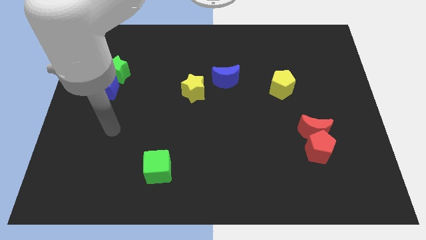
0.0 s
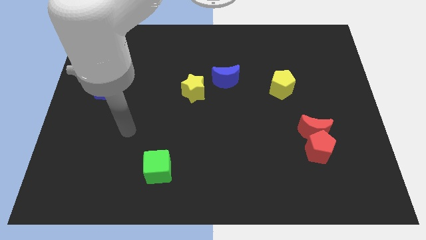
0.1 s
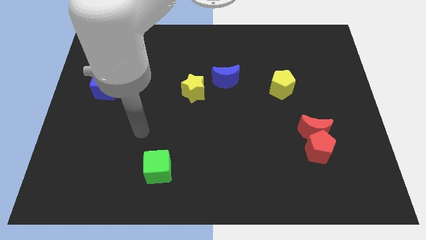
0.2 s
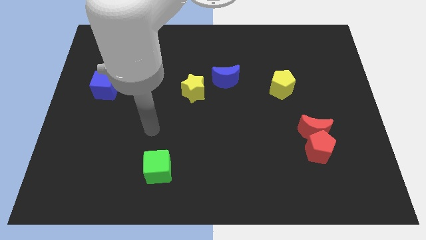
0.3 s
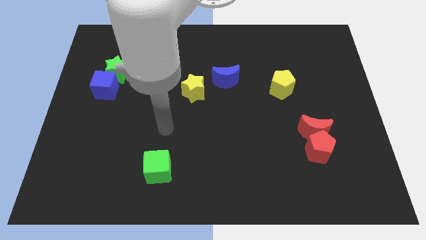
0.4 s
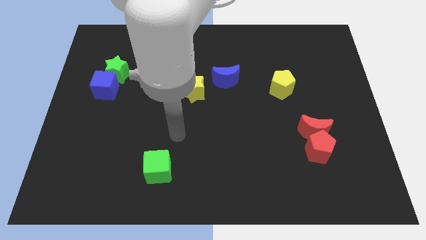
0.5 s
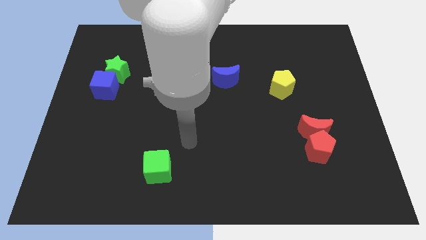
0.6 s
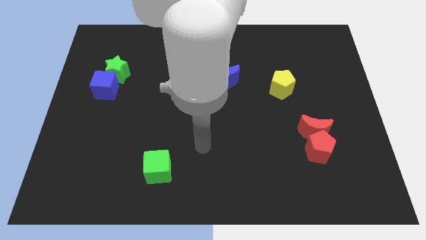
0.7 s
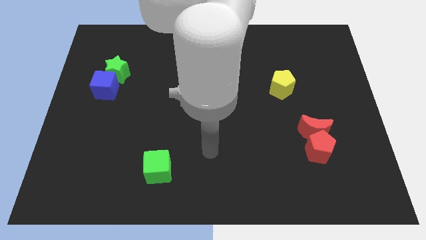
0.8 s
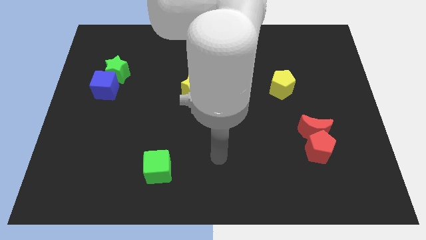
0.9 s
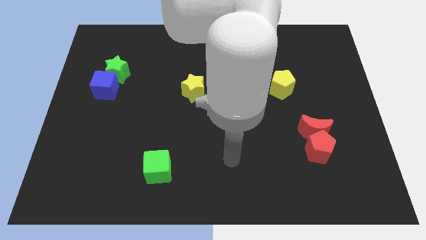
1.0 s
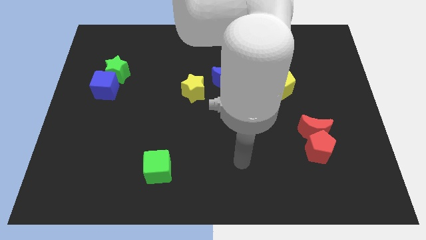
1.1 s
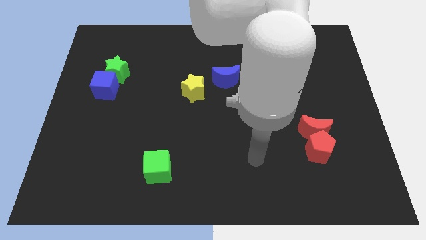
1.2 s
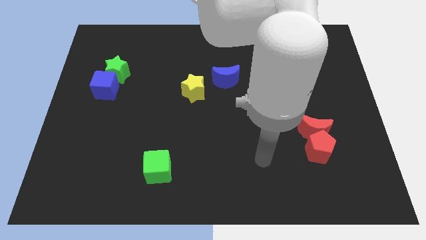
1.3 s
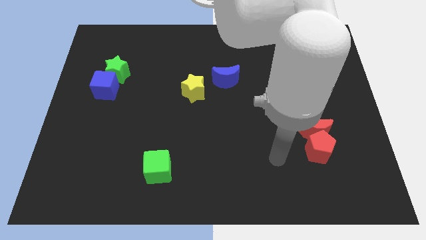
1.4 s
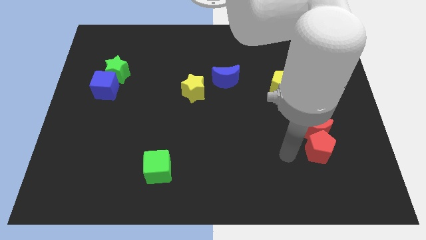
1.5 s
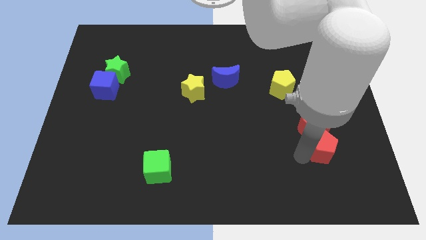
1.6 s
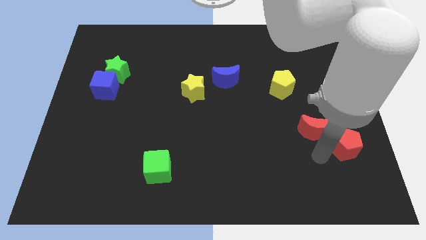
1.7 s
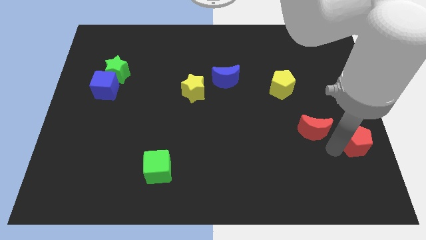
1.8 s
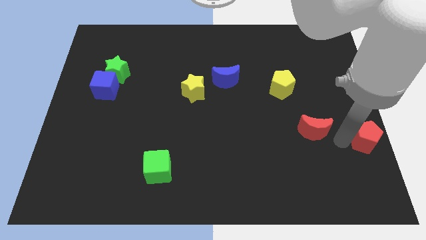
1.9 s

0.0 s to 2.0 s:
pull the red moon apart from the red pentagon

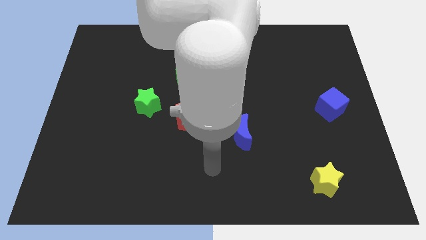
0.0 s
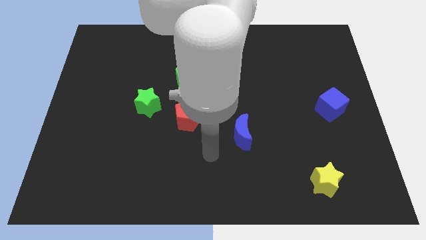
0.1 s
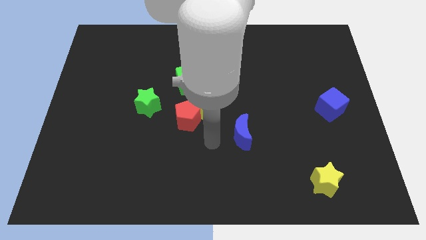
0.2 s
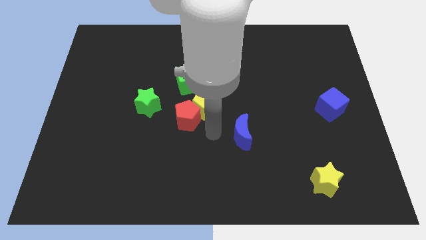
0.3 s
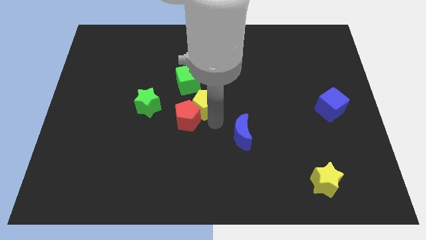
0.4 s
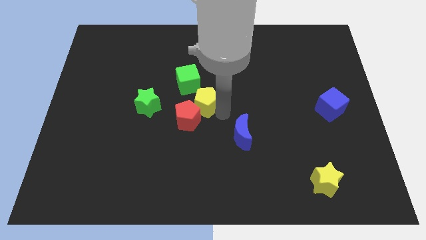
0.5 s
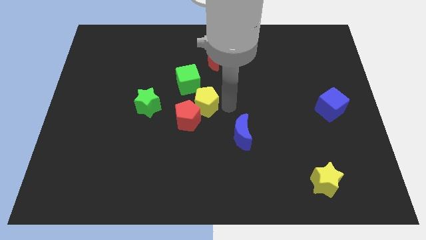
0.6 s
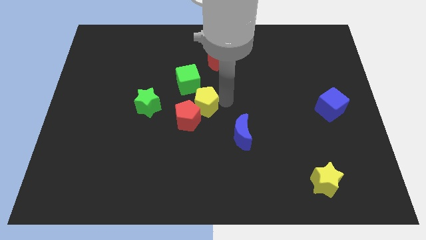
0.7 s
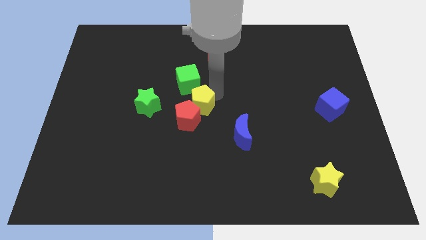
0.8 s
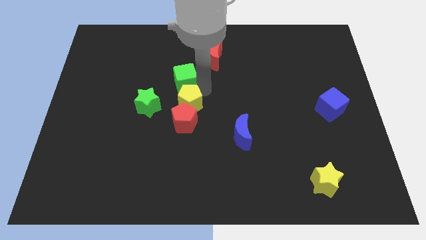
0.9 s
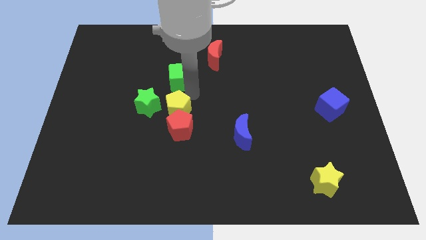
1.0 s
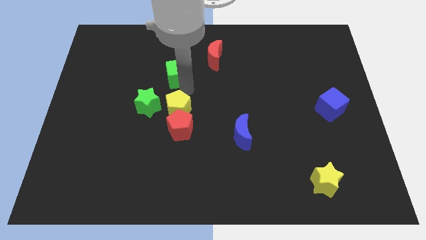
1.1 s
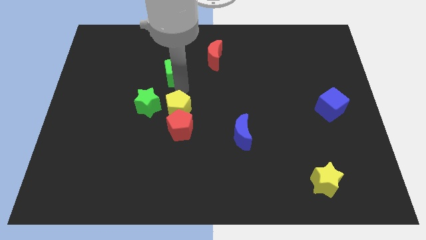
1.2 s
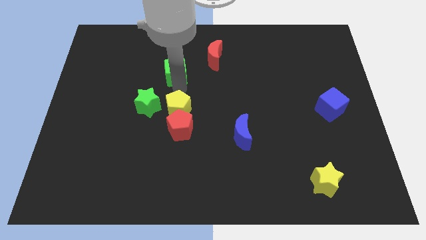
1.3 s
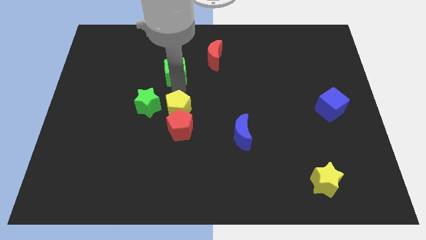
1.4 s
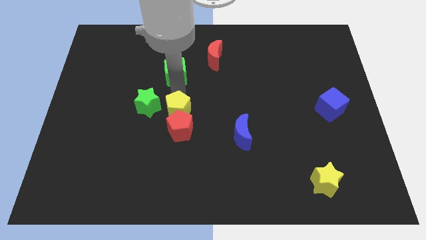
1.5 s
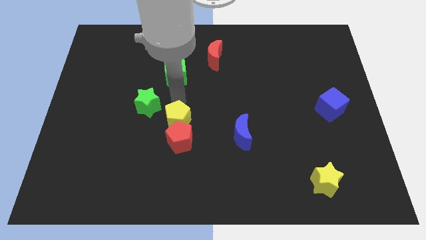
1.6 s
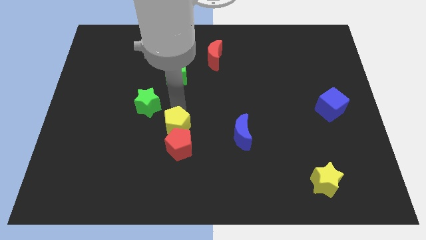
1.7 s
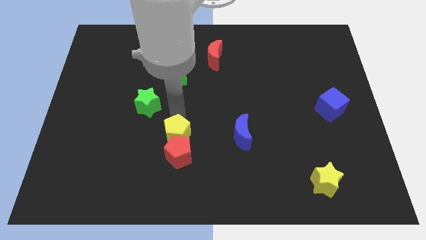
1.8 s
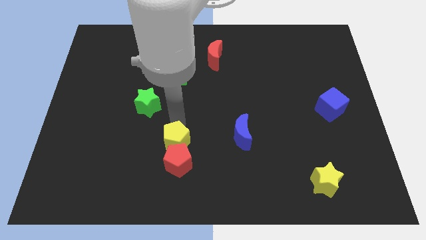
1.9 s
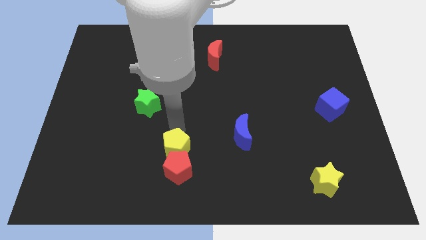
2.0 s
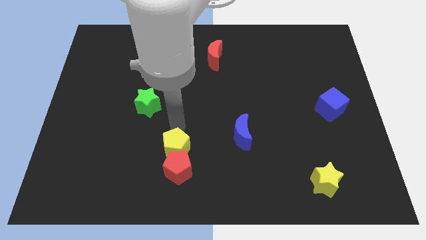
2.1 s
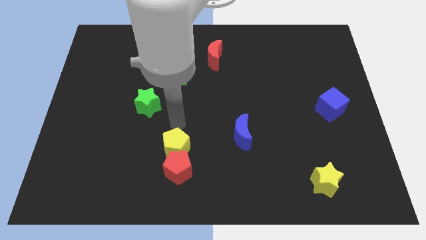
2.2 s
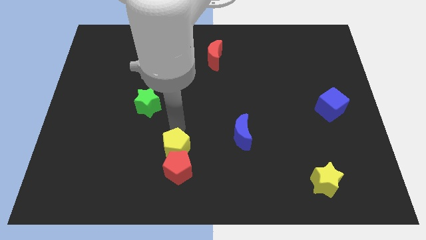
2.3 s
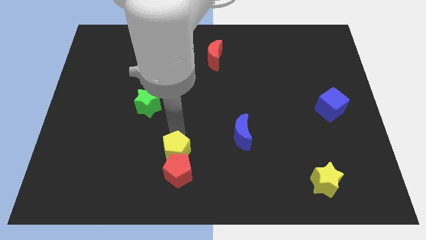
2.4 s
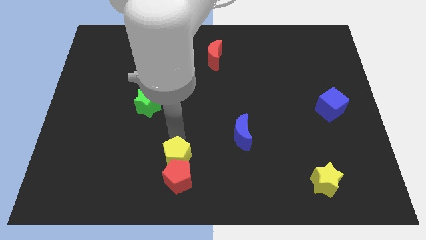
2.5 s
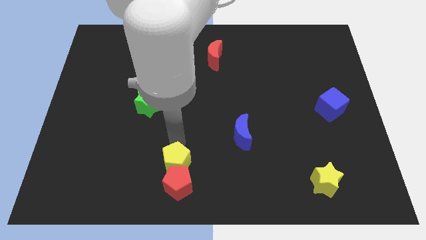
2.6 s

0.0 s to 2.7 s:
move the yellow pentagon away from the red pentagon and green cube

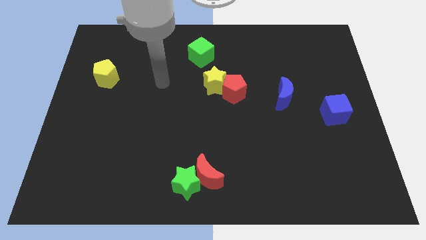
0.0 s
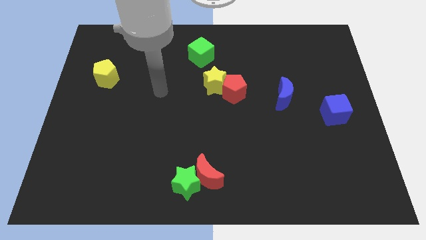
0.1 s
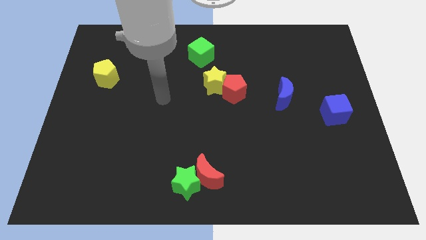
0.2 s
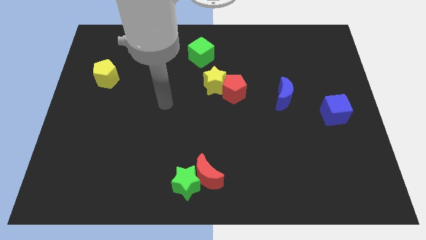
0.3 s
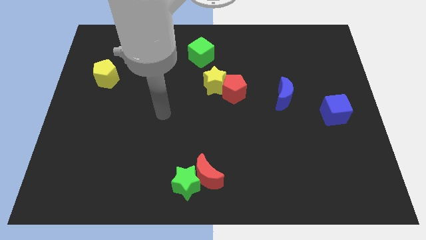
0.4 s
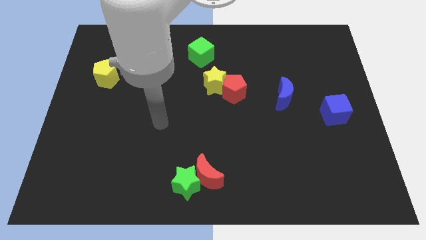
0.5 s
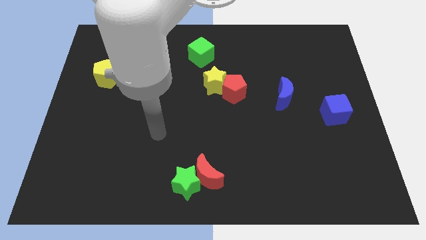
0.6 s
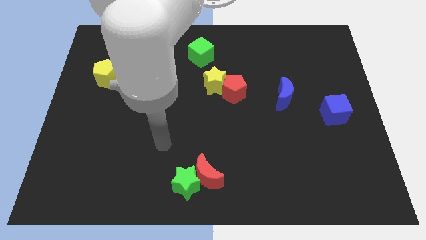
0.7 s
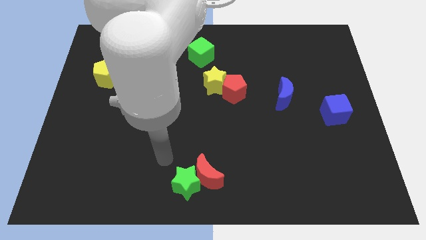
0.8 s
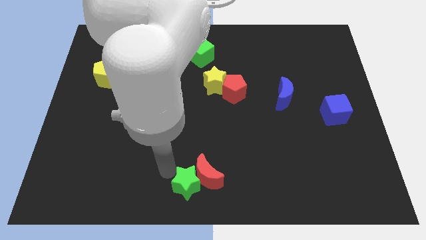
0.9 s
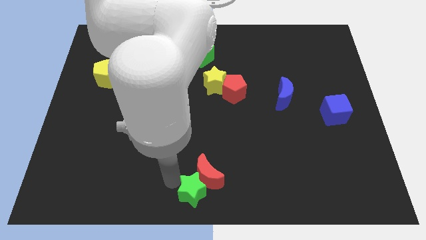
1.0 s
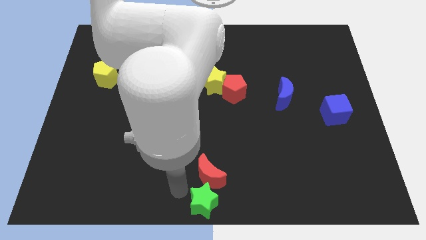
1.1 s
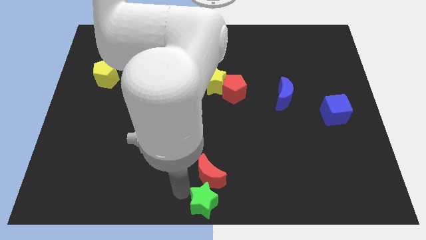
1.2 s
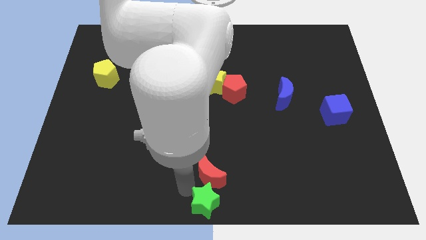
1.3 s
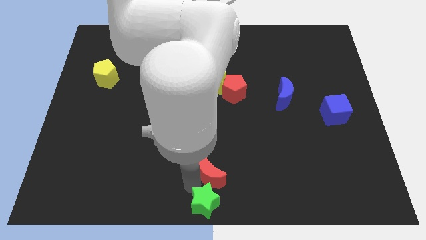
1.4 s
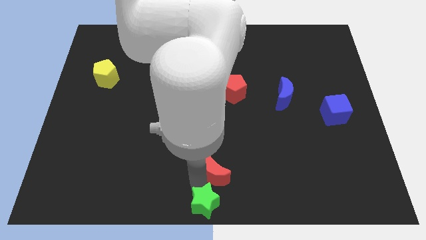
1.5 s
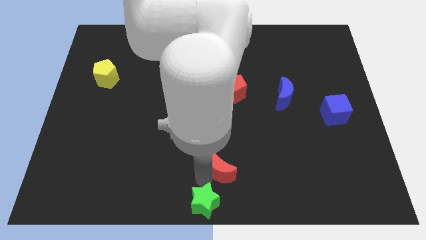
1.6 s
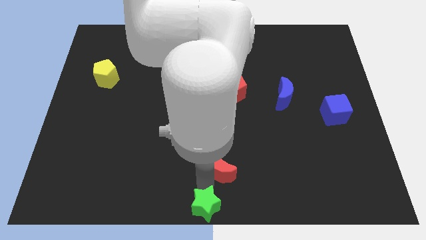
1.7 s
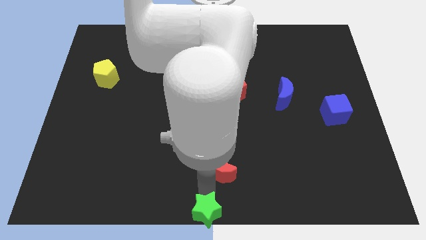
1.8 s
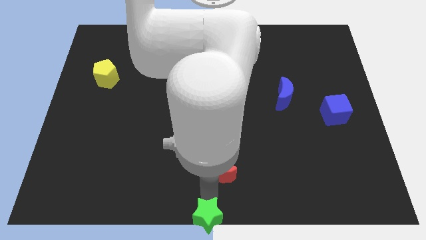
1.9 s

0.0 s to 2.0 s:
separate the red moon from the green star

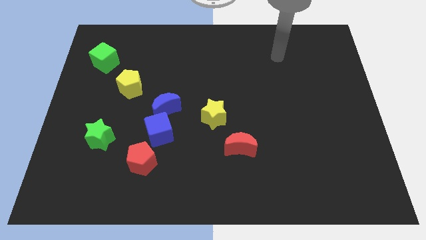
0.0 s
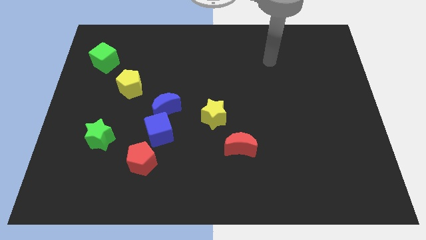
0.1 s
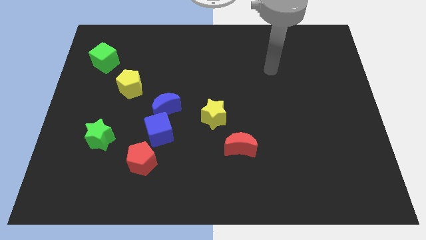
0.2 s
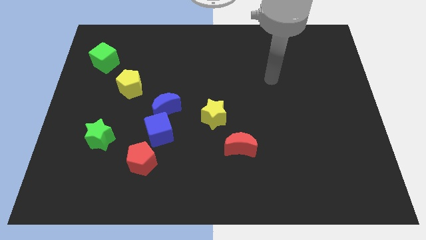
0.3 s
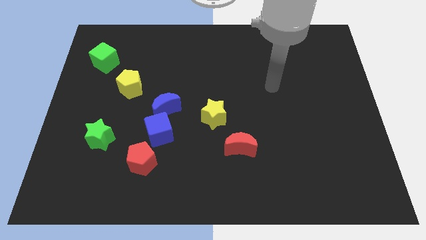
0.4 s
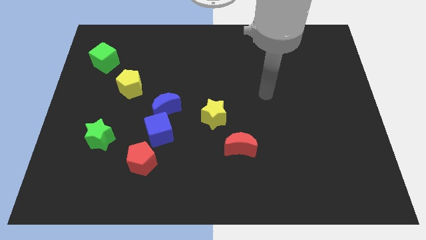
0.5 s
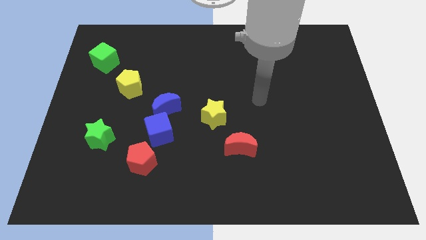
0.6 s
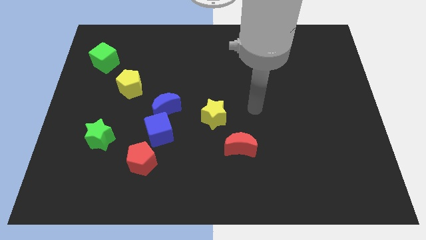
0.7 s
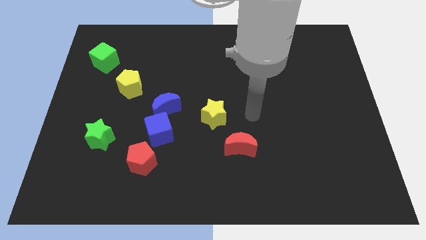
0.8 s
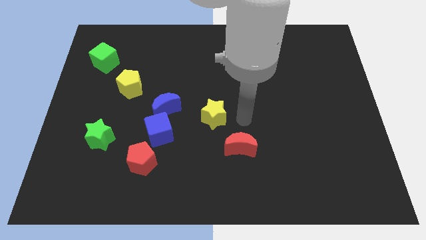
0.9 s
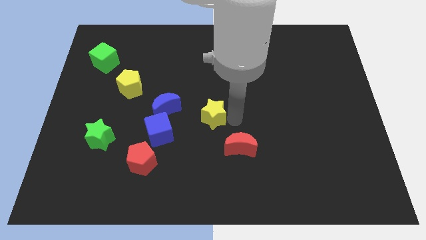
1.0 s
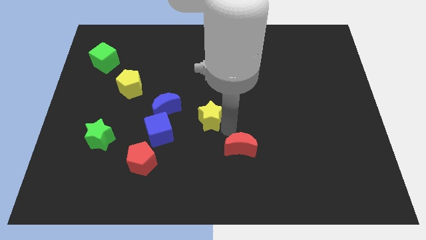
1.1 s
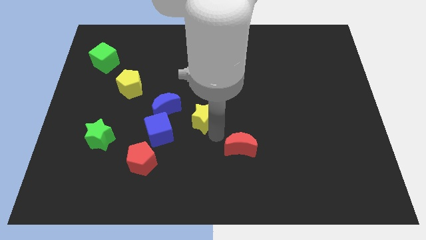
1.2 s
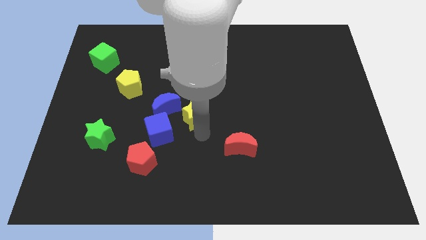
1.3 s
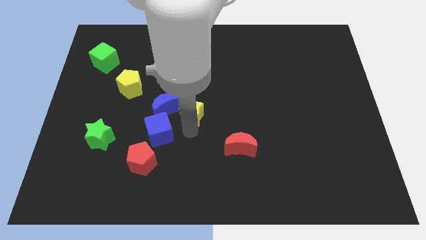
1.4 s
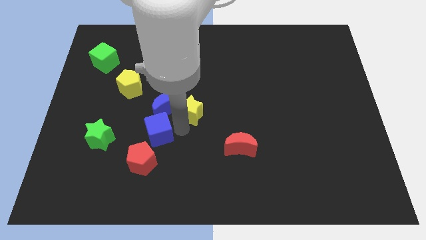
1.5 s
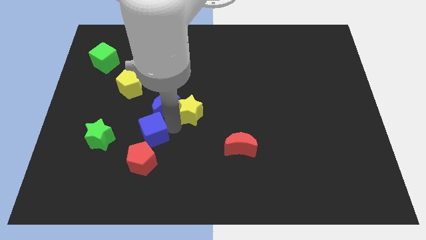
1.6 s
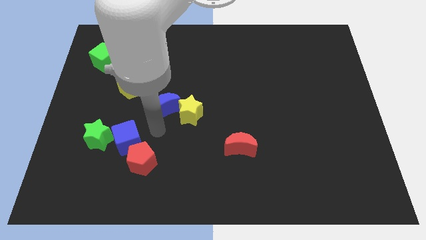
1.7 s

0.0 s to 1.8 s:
pull the blue moon apart from the blue cube

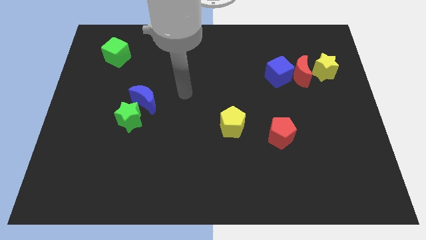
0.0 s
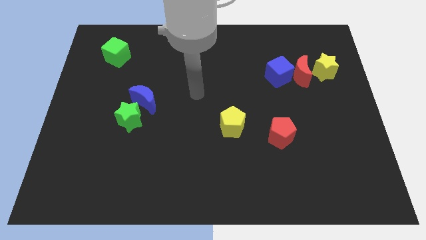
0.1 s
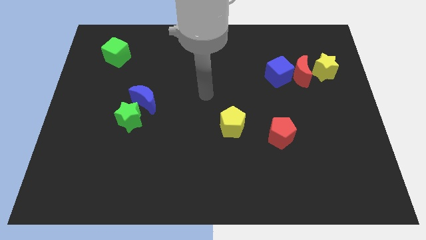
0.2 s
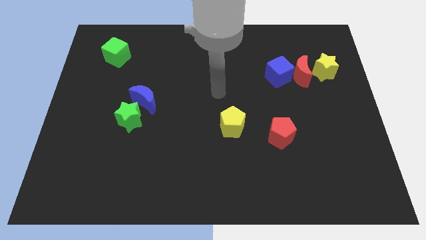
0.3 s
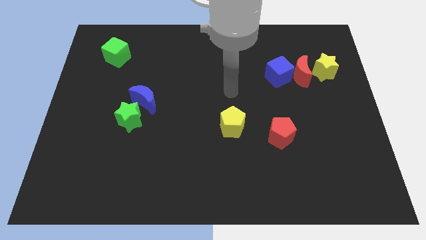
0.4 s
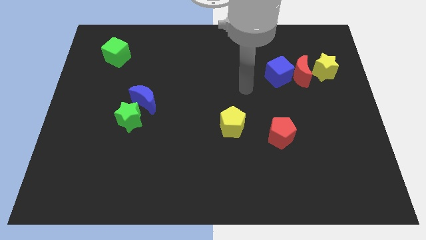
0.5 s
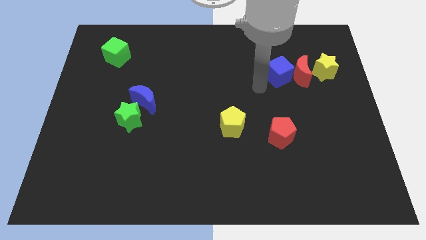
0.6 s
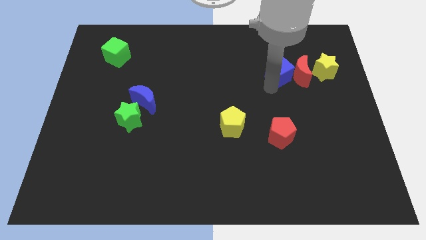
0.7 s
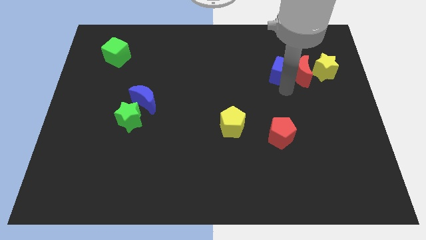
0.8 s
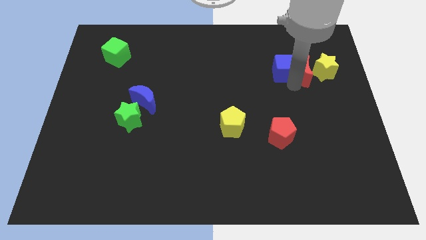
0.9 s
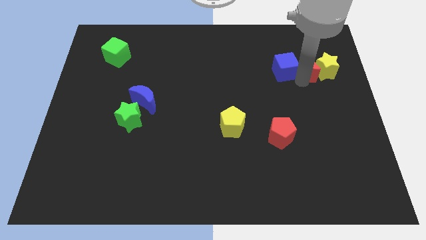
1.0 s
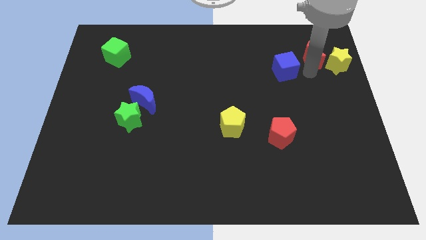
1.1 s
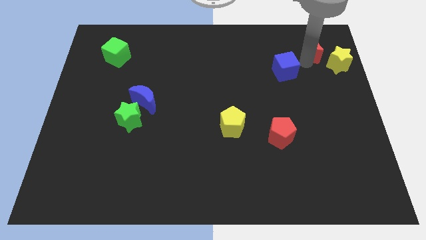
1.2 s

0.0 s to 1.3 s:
separate the blue cube from the red moon
